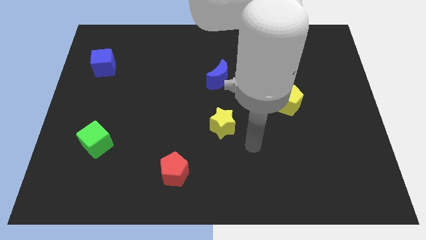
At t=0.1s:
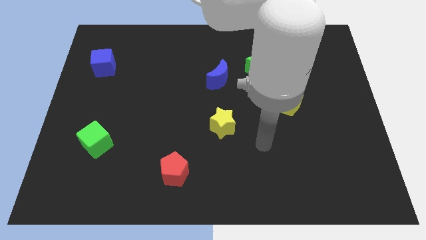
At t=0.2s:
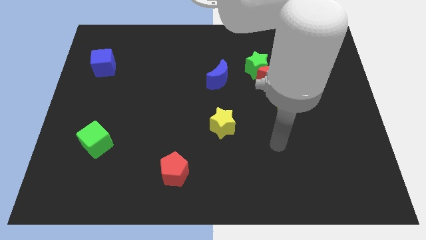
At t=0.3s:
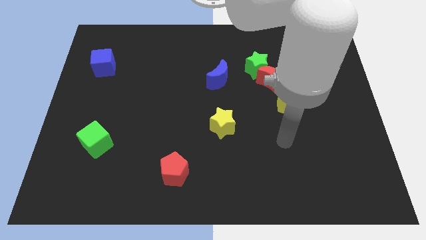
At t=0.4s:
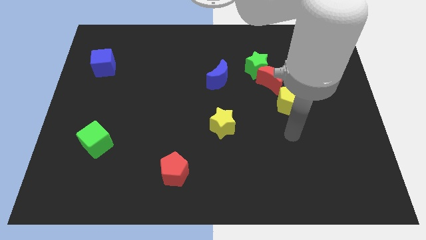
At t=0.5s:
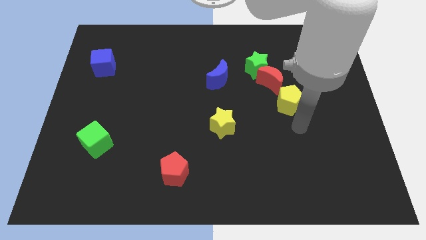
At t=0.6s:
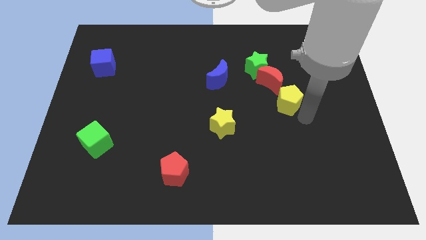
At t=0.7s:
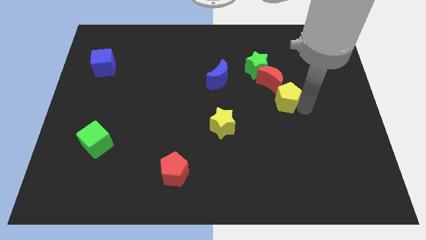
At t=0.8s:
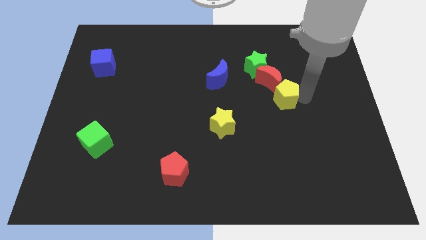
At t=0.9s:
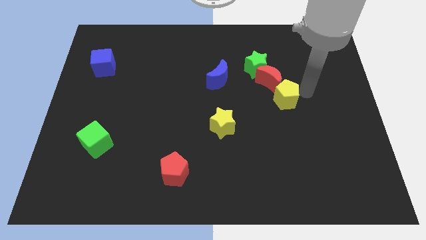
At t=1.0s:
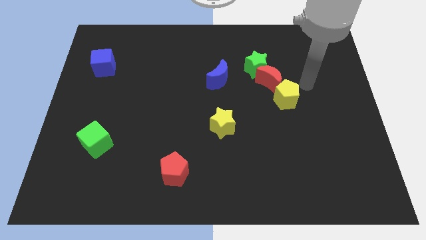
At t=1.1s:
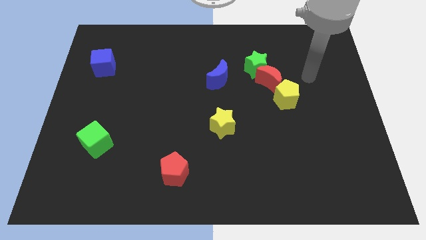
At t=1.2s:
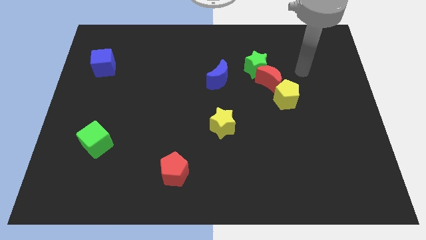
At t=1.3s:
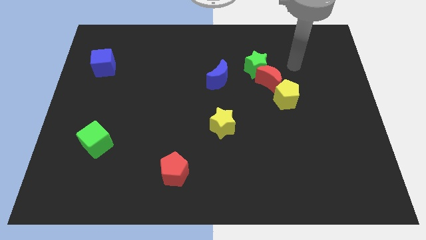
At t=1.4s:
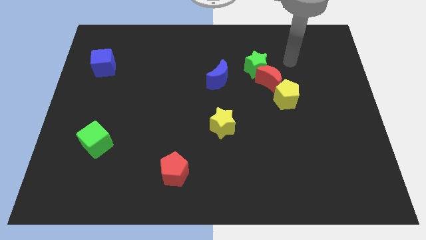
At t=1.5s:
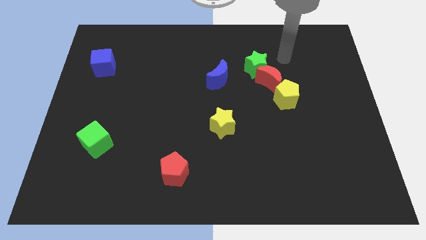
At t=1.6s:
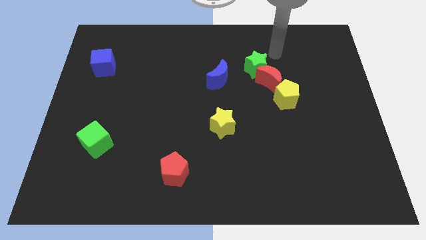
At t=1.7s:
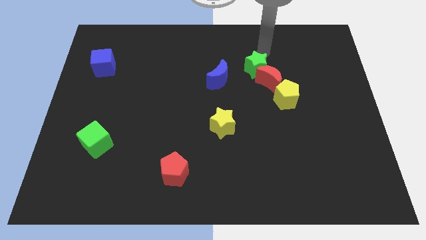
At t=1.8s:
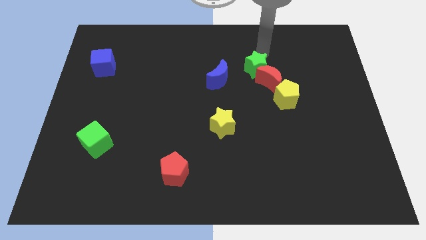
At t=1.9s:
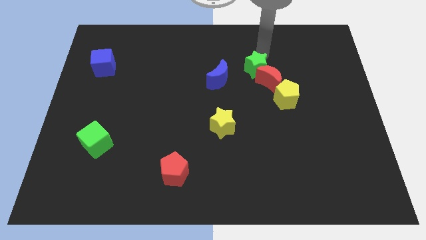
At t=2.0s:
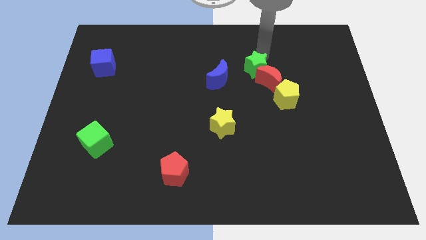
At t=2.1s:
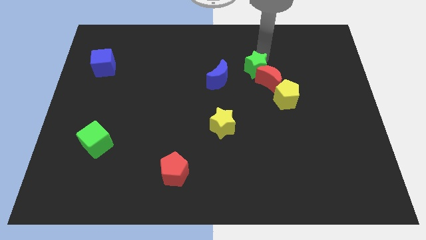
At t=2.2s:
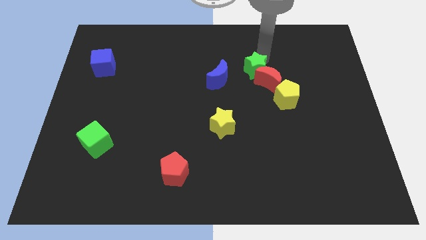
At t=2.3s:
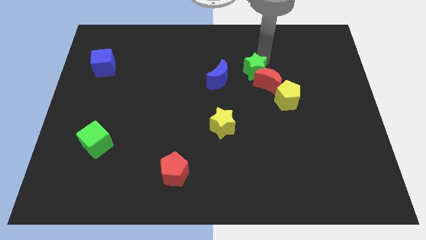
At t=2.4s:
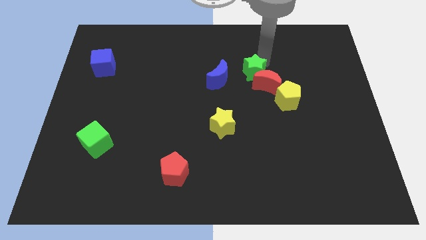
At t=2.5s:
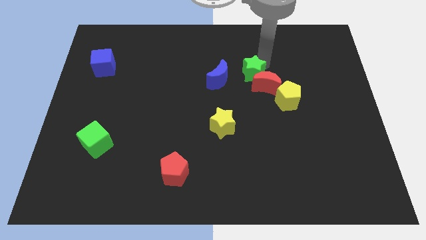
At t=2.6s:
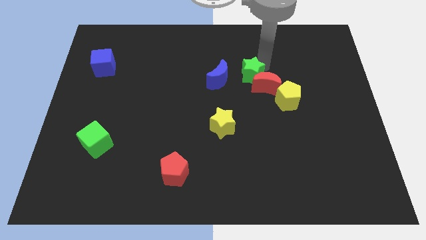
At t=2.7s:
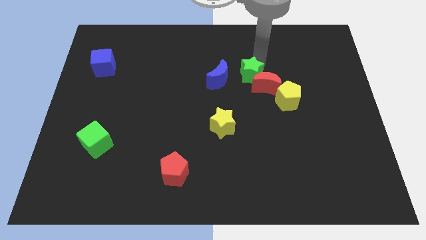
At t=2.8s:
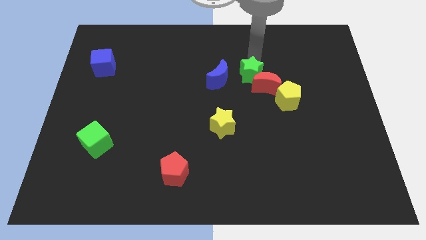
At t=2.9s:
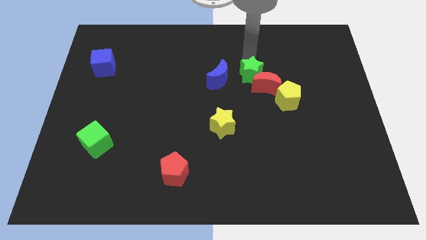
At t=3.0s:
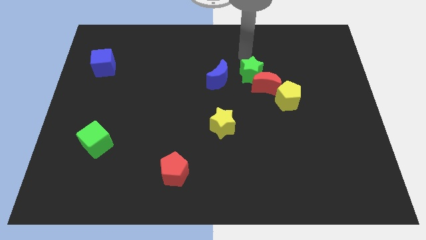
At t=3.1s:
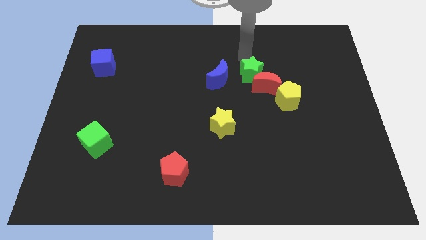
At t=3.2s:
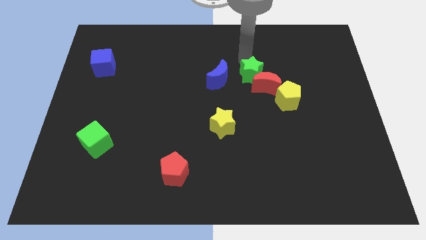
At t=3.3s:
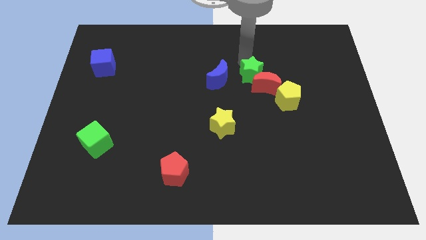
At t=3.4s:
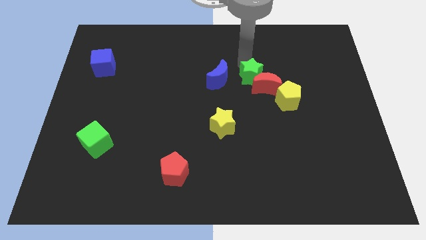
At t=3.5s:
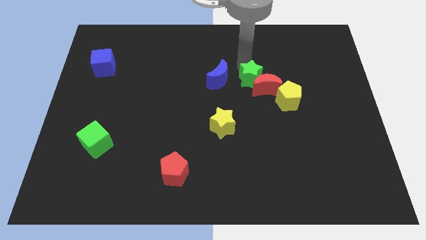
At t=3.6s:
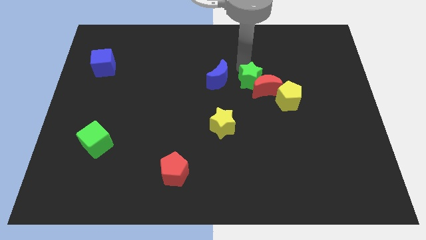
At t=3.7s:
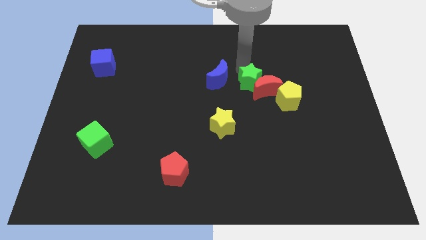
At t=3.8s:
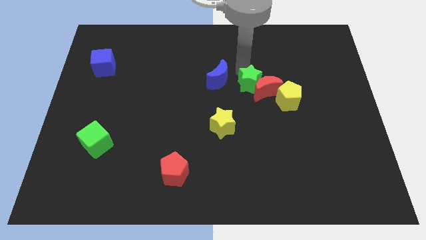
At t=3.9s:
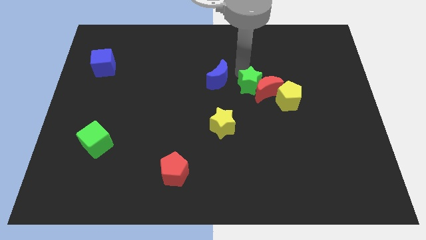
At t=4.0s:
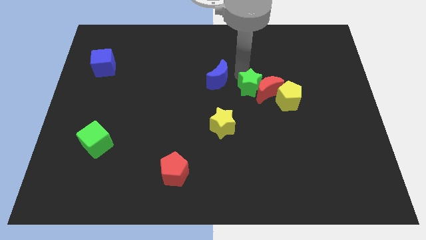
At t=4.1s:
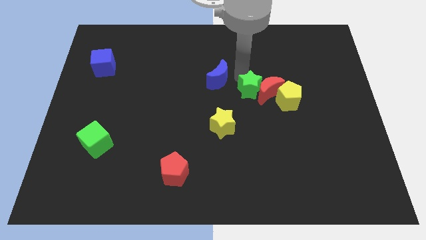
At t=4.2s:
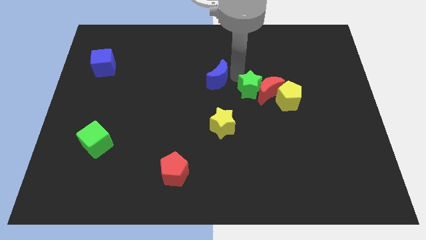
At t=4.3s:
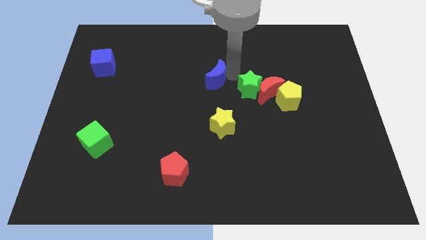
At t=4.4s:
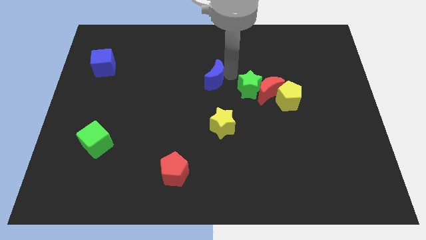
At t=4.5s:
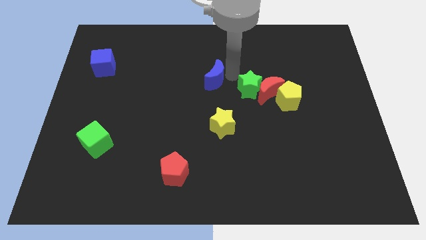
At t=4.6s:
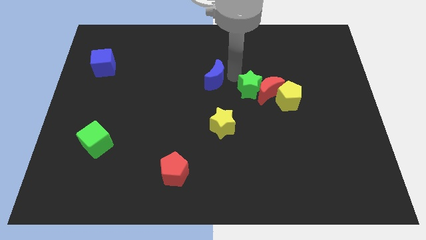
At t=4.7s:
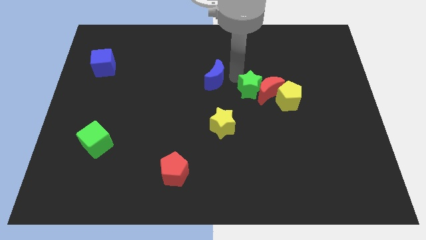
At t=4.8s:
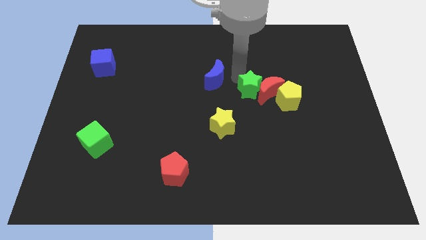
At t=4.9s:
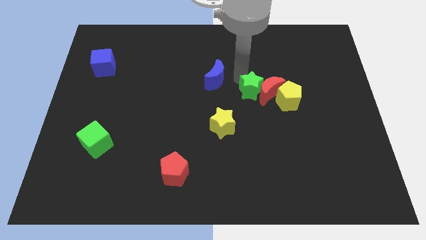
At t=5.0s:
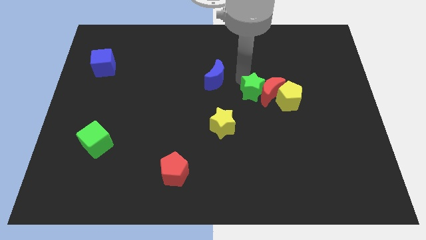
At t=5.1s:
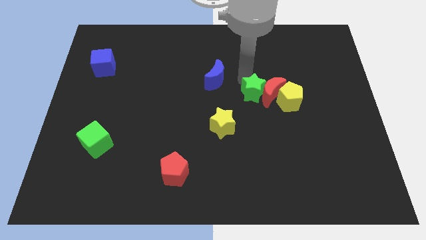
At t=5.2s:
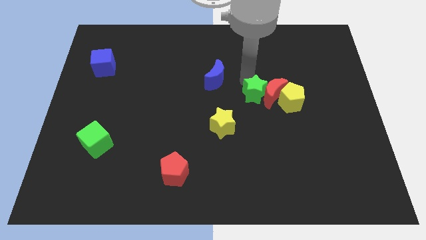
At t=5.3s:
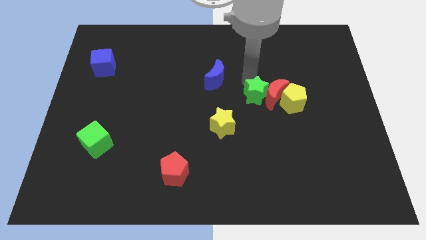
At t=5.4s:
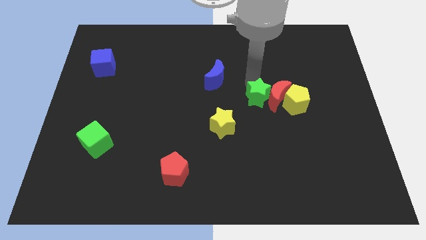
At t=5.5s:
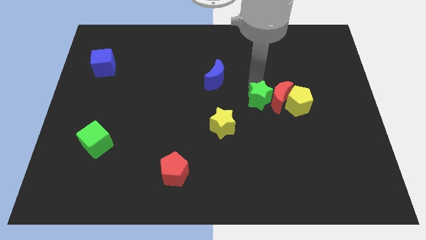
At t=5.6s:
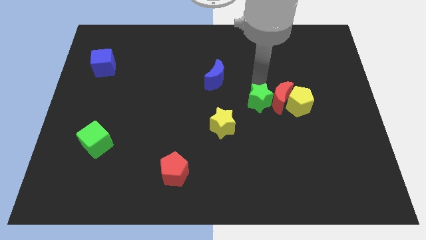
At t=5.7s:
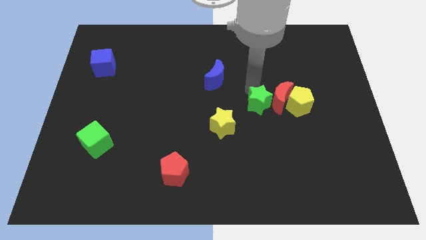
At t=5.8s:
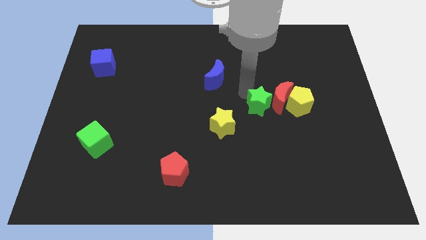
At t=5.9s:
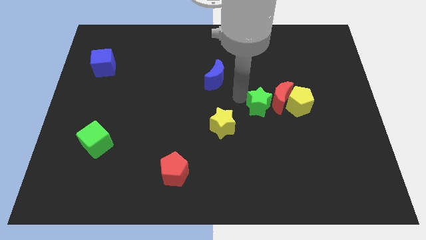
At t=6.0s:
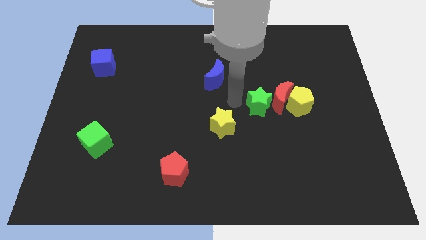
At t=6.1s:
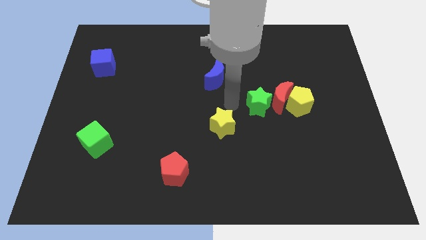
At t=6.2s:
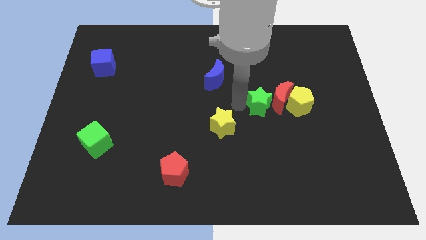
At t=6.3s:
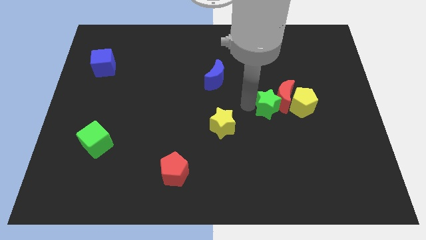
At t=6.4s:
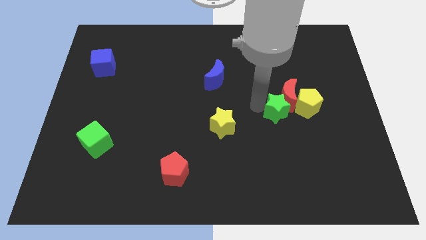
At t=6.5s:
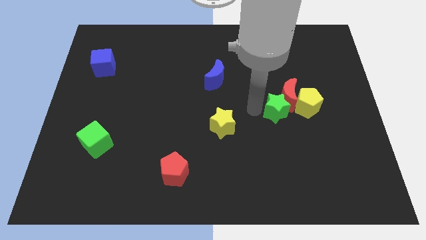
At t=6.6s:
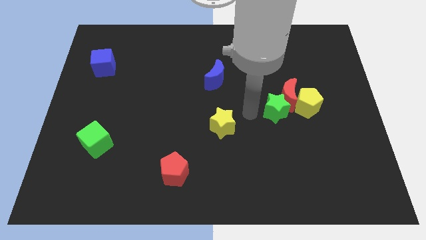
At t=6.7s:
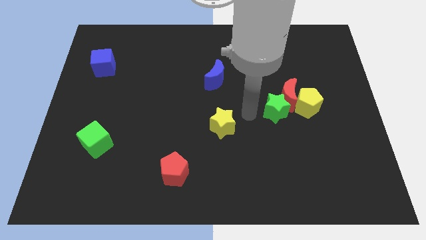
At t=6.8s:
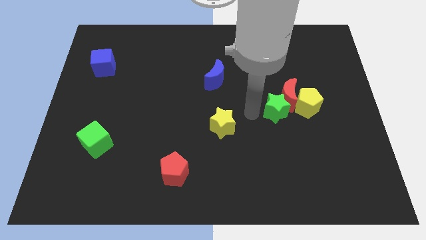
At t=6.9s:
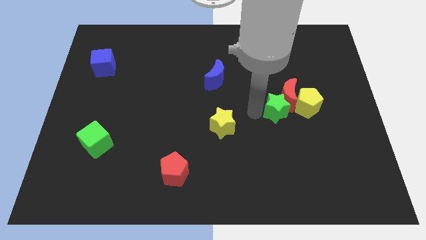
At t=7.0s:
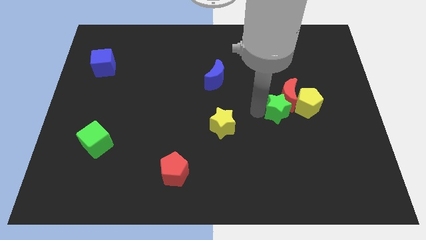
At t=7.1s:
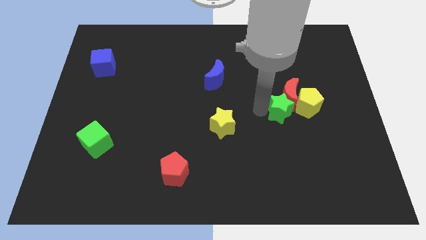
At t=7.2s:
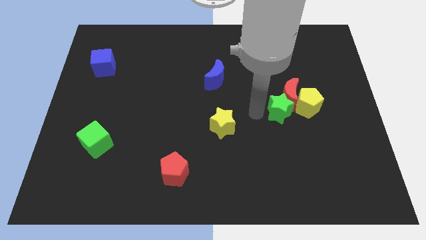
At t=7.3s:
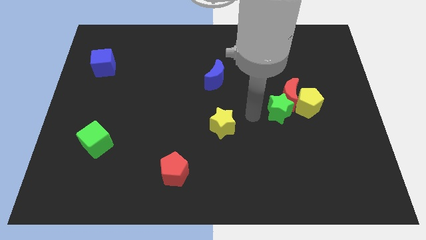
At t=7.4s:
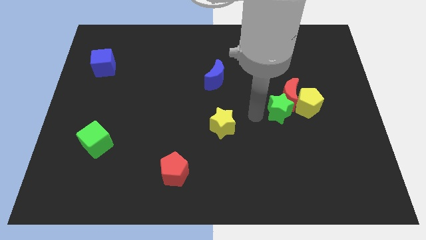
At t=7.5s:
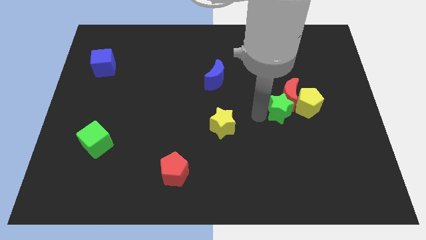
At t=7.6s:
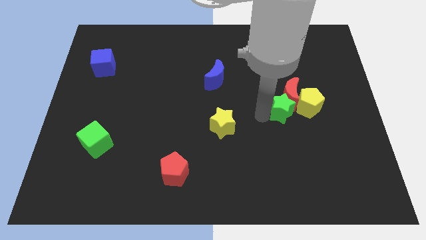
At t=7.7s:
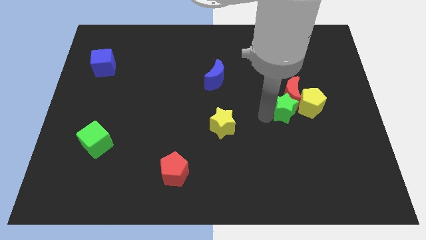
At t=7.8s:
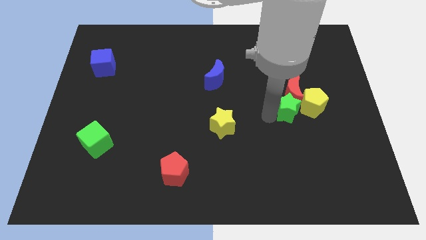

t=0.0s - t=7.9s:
move the green star towards the yellow pentagon
